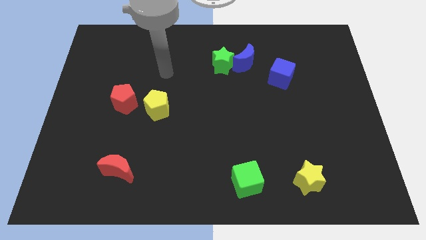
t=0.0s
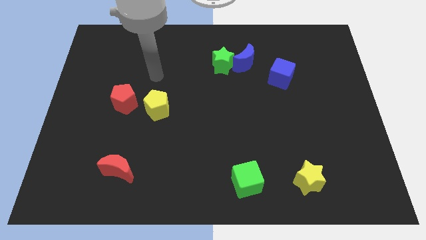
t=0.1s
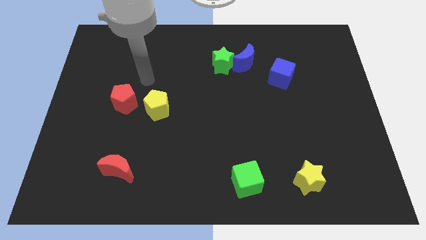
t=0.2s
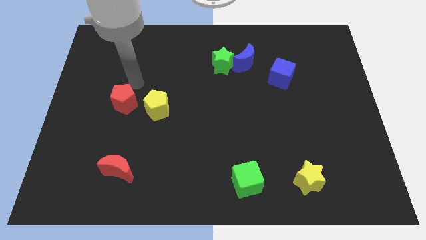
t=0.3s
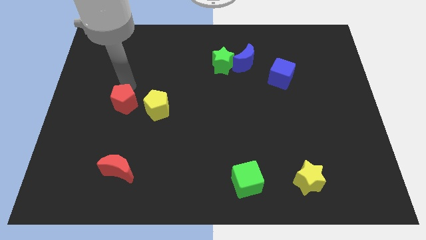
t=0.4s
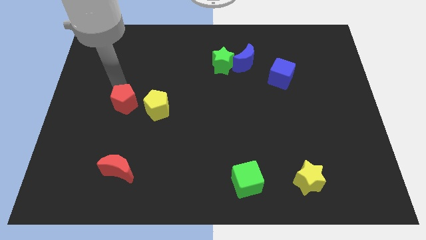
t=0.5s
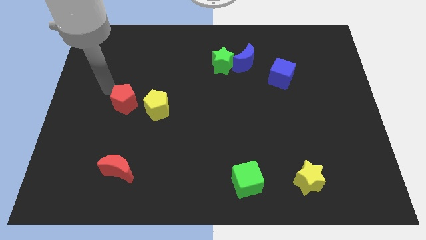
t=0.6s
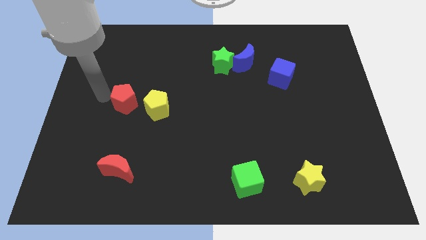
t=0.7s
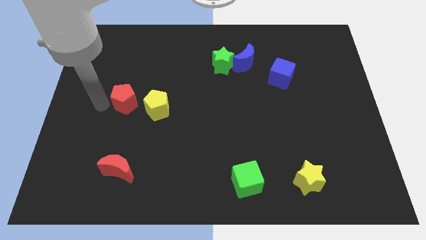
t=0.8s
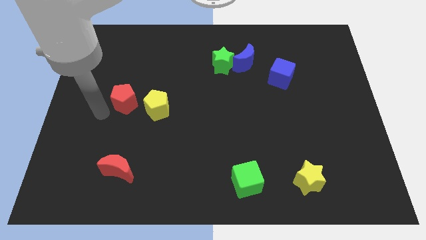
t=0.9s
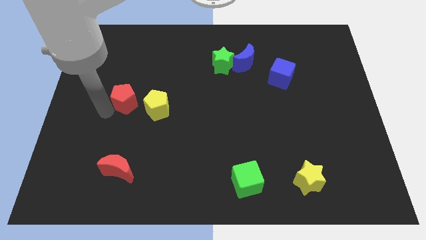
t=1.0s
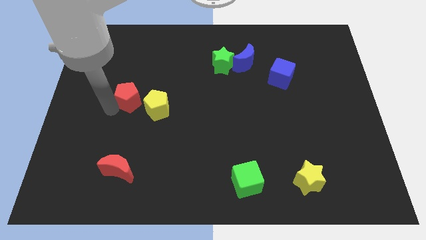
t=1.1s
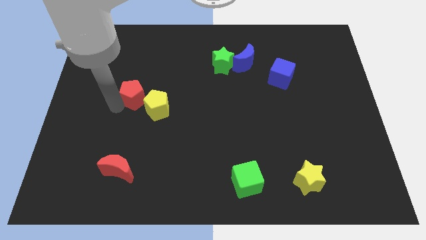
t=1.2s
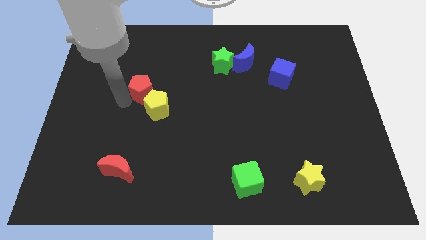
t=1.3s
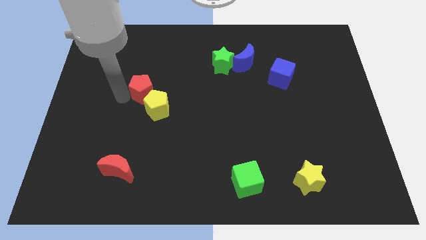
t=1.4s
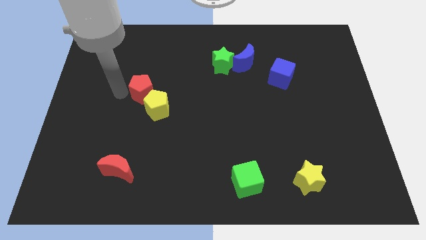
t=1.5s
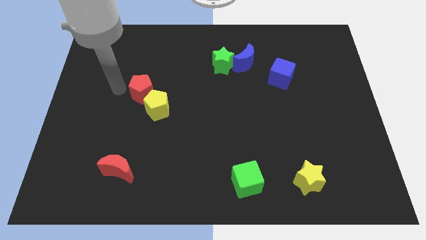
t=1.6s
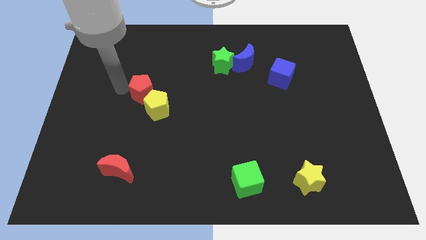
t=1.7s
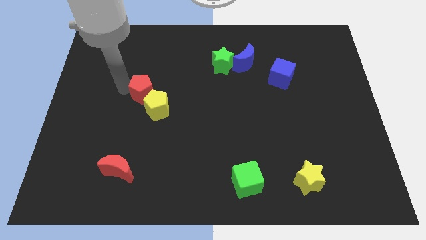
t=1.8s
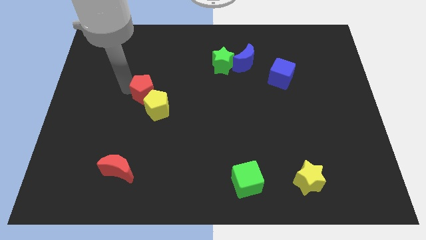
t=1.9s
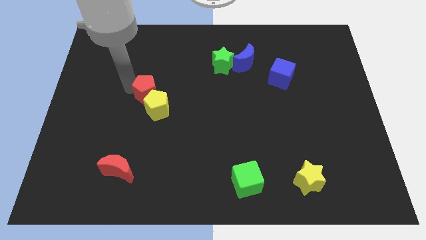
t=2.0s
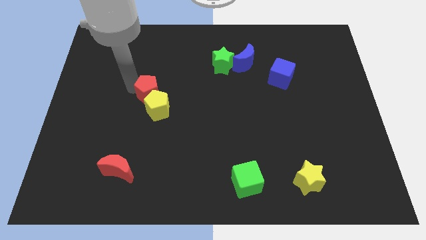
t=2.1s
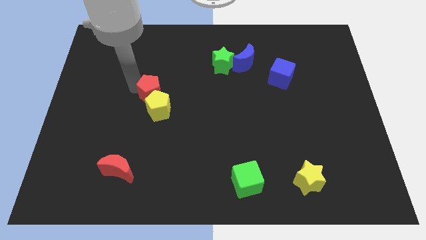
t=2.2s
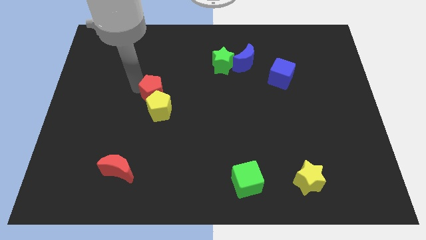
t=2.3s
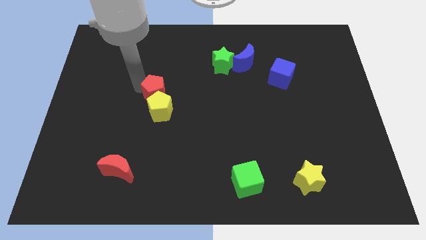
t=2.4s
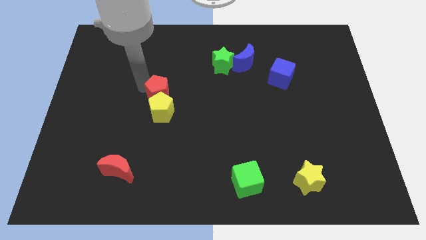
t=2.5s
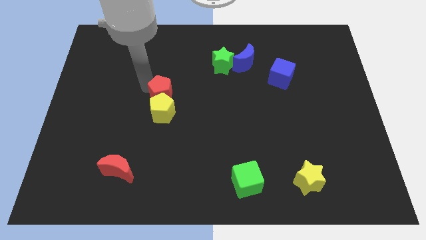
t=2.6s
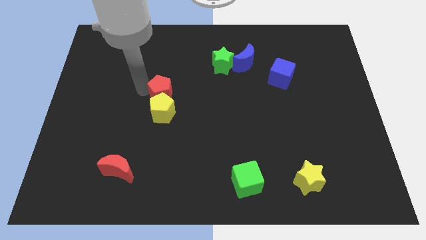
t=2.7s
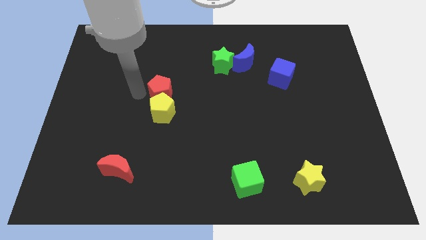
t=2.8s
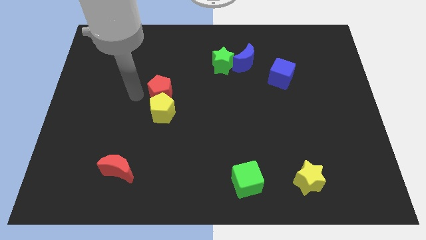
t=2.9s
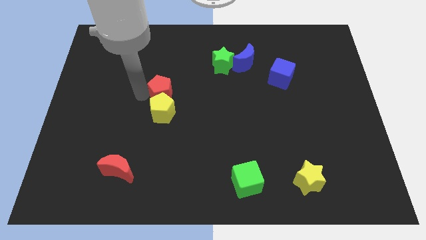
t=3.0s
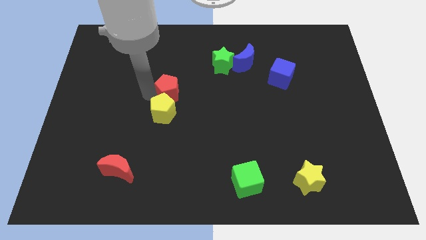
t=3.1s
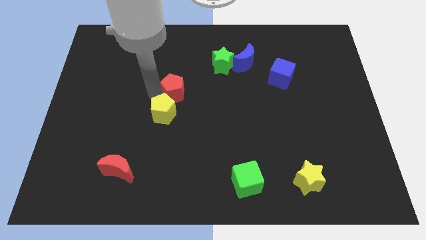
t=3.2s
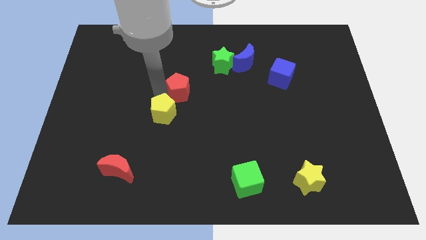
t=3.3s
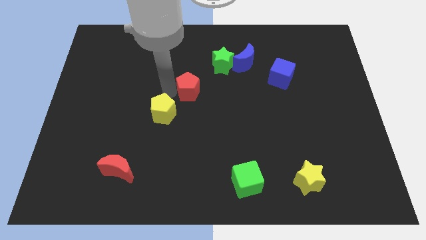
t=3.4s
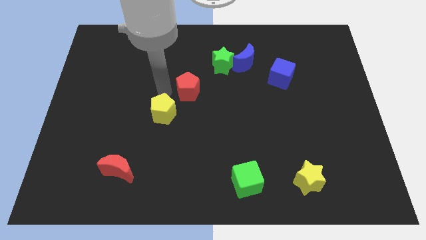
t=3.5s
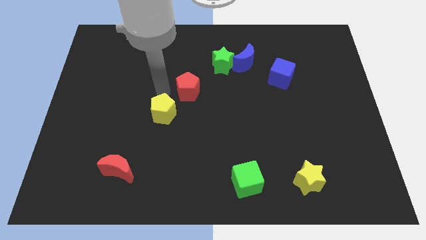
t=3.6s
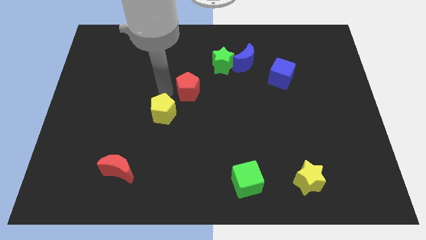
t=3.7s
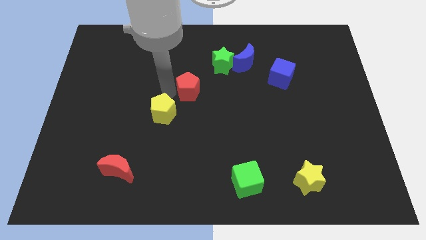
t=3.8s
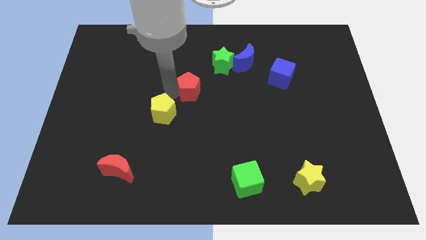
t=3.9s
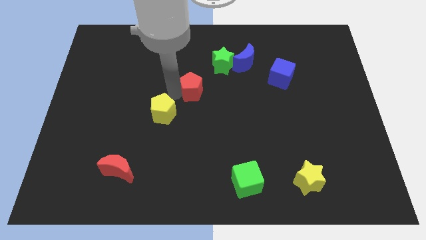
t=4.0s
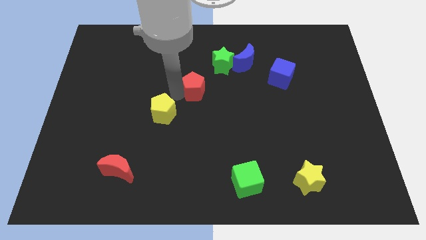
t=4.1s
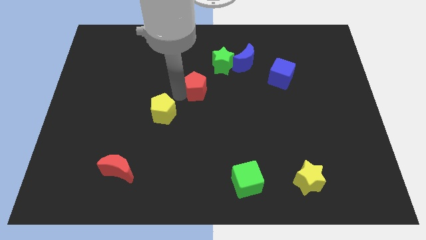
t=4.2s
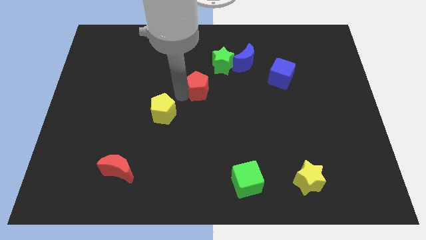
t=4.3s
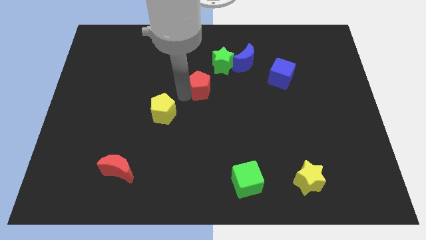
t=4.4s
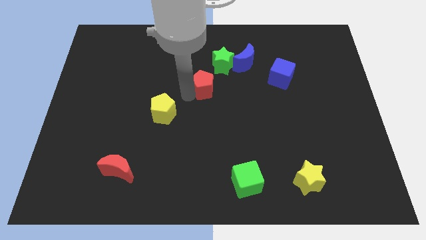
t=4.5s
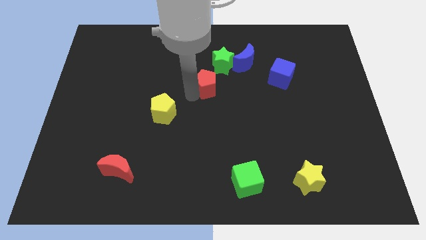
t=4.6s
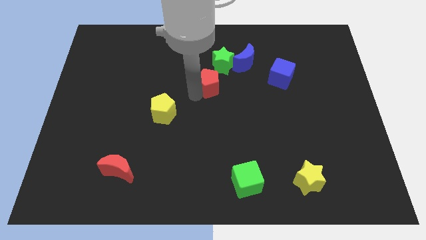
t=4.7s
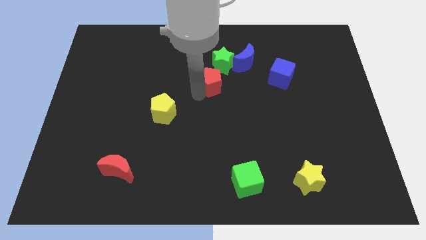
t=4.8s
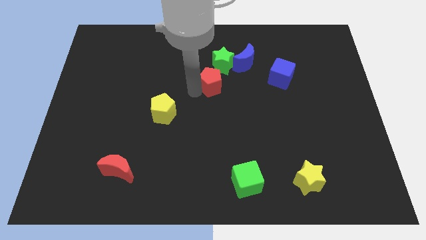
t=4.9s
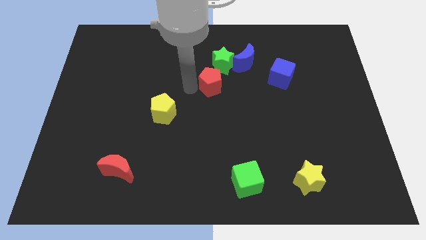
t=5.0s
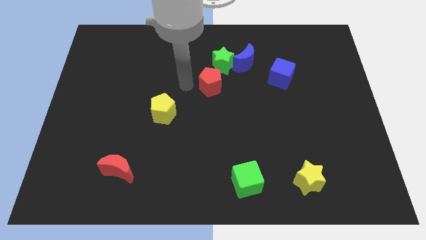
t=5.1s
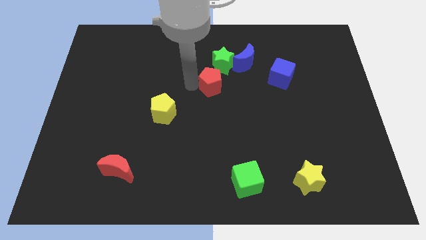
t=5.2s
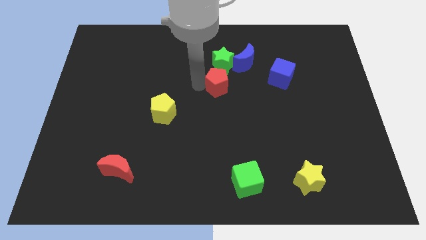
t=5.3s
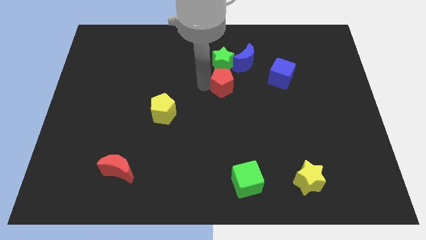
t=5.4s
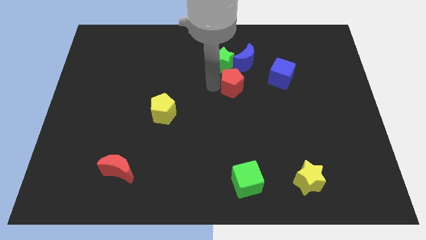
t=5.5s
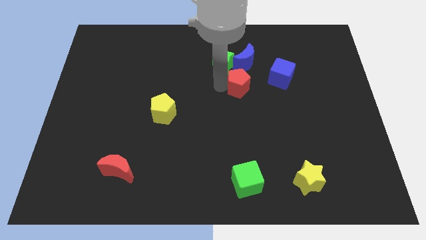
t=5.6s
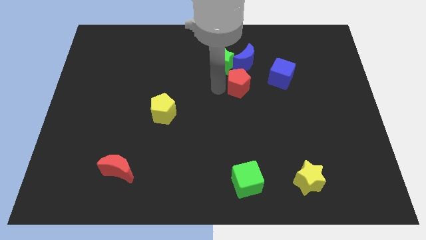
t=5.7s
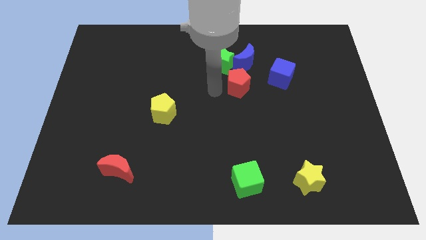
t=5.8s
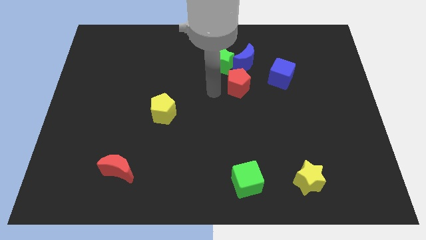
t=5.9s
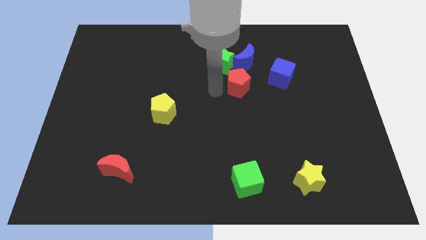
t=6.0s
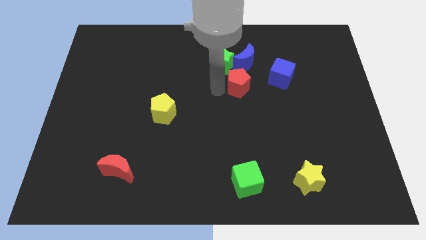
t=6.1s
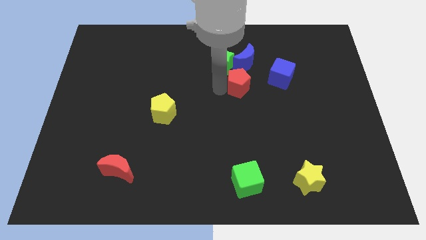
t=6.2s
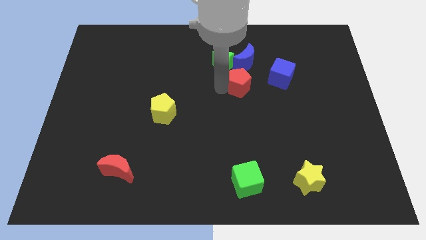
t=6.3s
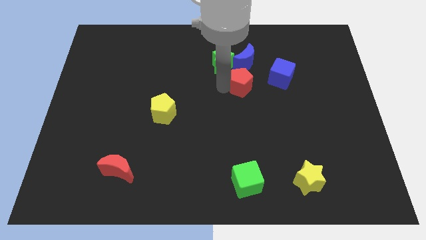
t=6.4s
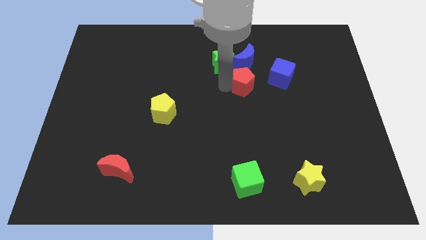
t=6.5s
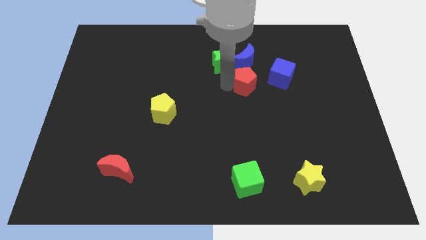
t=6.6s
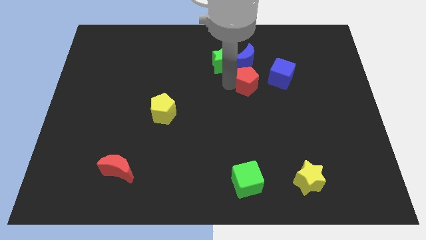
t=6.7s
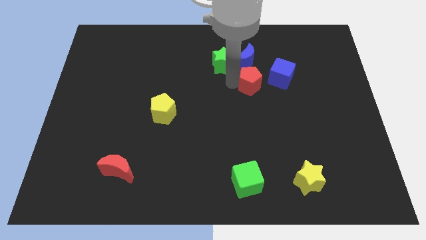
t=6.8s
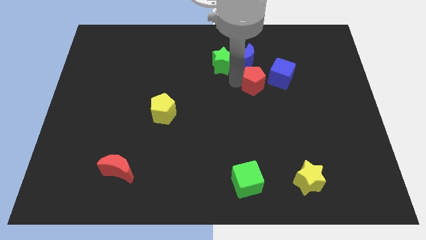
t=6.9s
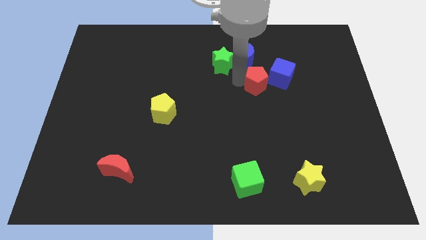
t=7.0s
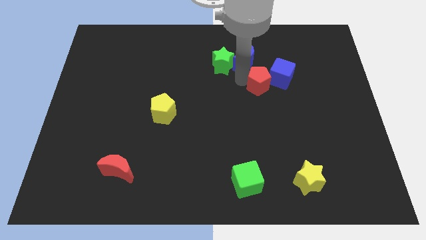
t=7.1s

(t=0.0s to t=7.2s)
put the red pentagon to the blue cube

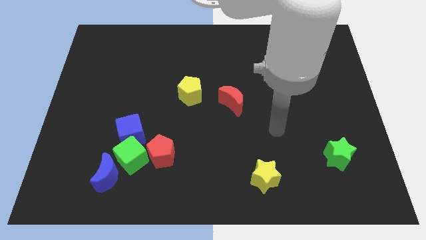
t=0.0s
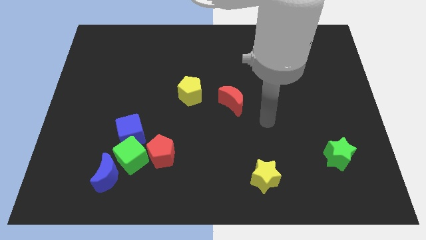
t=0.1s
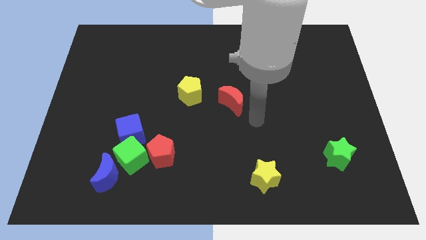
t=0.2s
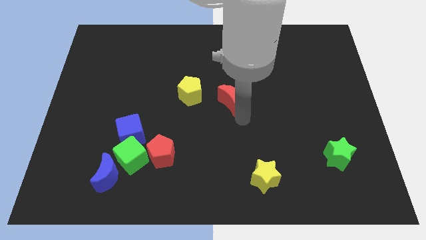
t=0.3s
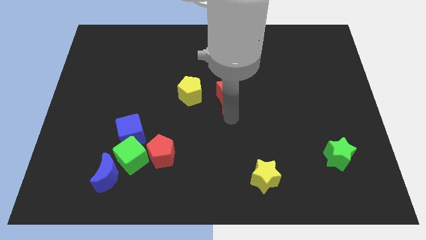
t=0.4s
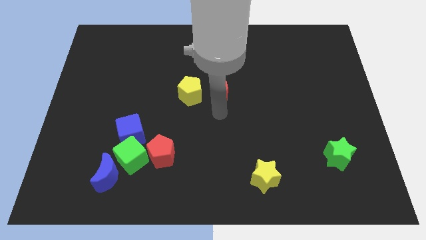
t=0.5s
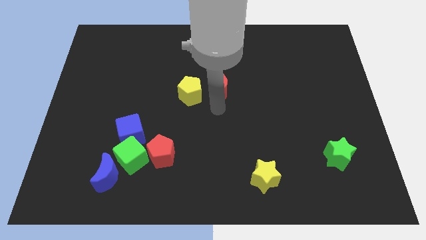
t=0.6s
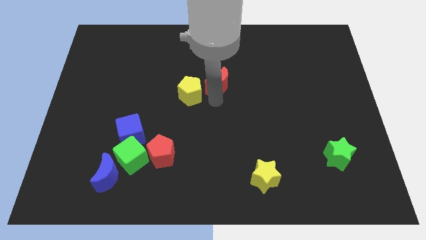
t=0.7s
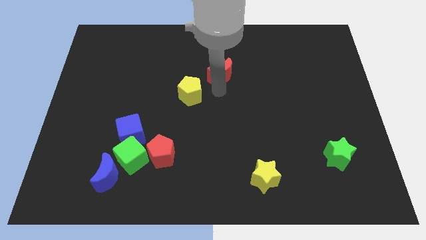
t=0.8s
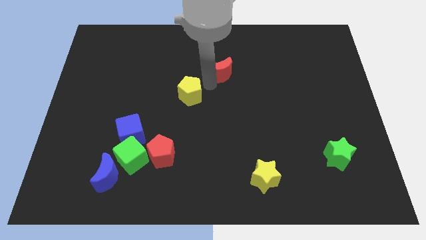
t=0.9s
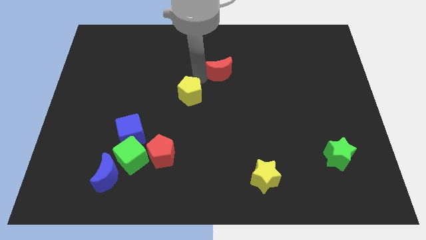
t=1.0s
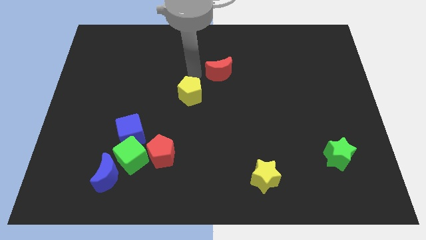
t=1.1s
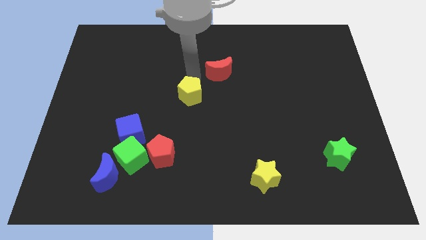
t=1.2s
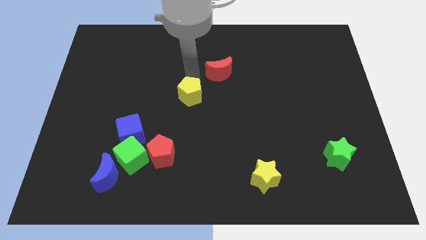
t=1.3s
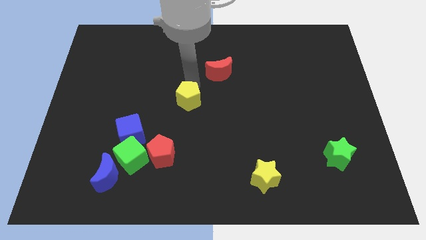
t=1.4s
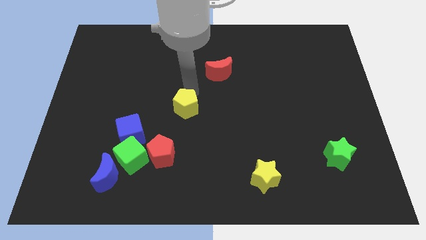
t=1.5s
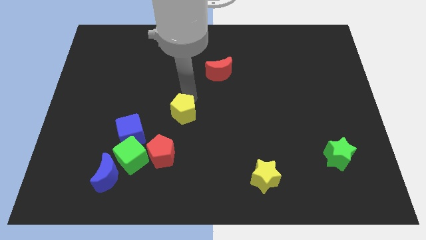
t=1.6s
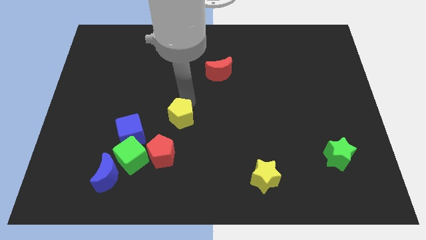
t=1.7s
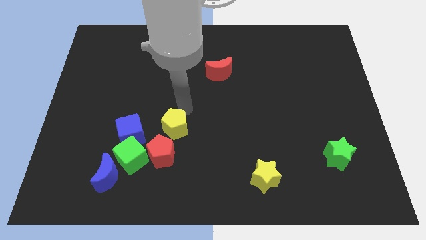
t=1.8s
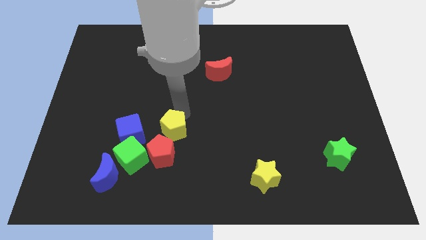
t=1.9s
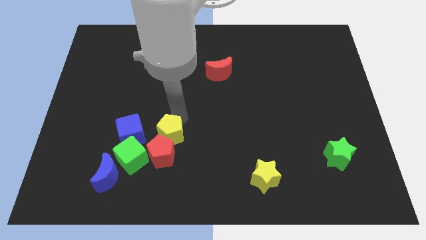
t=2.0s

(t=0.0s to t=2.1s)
slide the yellow pentagon next to the red pentagon
